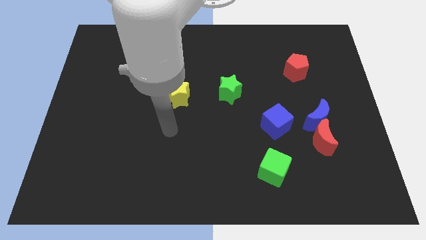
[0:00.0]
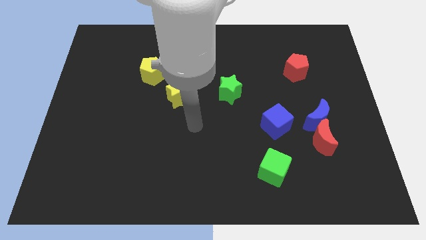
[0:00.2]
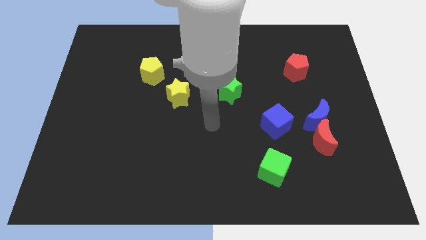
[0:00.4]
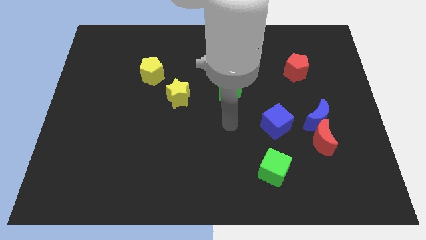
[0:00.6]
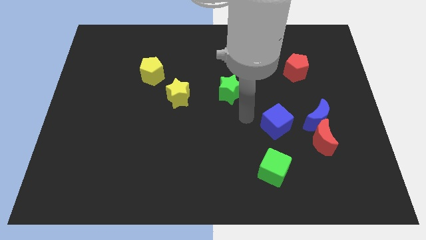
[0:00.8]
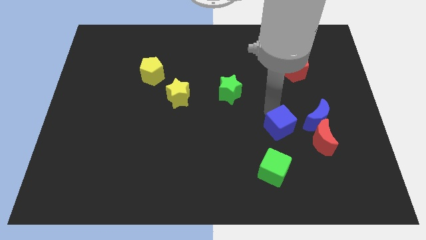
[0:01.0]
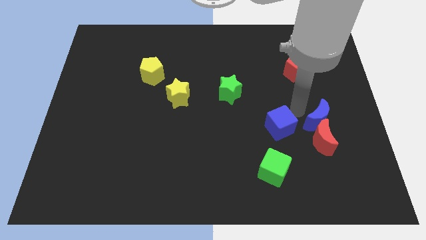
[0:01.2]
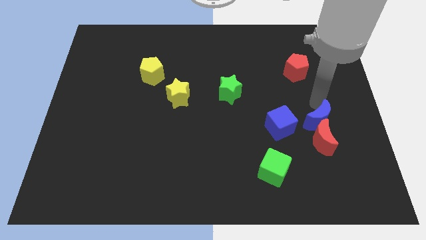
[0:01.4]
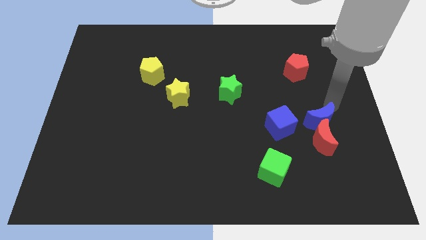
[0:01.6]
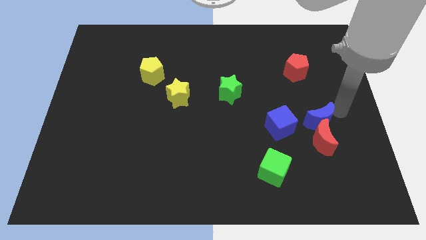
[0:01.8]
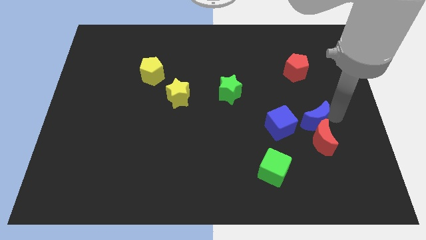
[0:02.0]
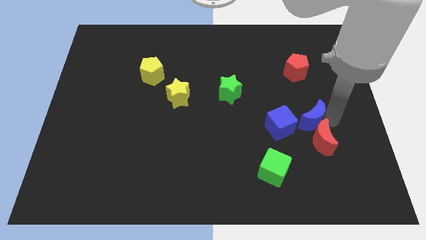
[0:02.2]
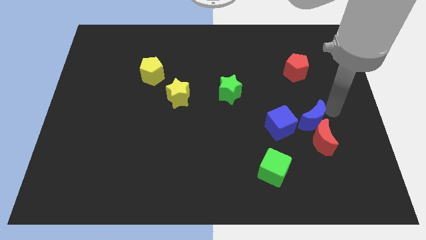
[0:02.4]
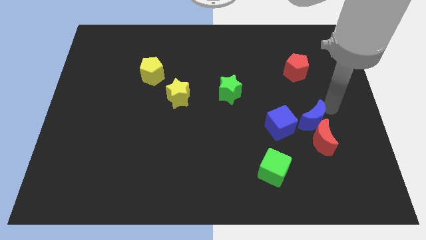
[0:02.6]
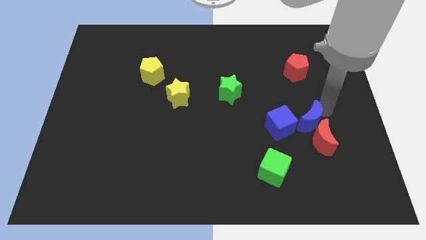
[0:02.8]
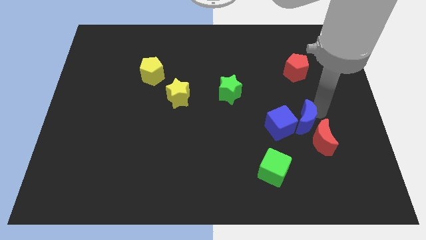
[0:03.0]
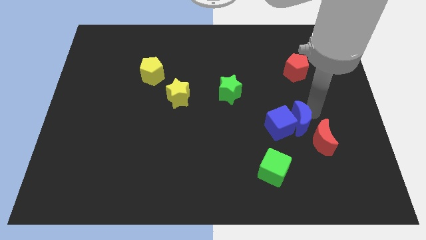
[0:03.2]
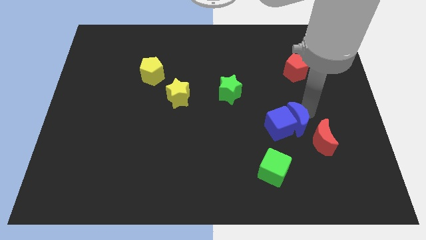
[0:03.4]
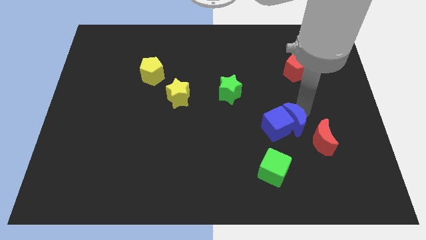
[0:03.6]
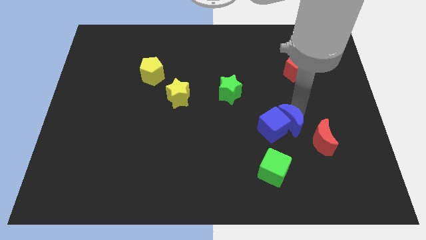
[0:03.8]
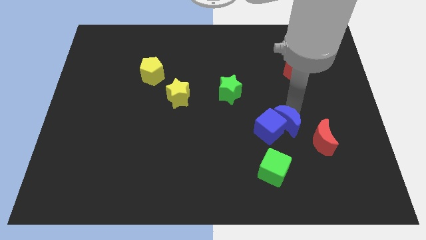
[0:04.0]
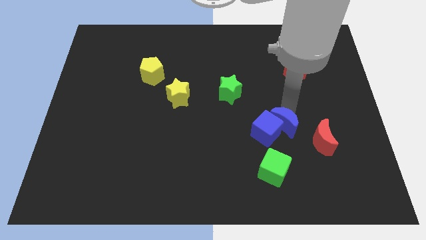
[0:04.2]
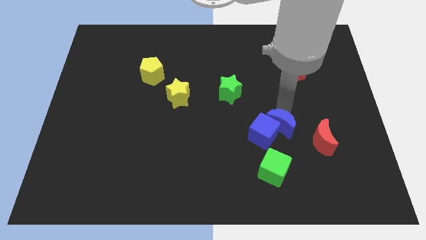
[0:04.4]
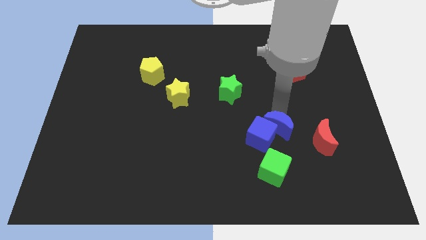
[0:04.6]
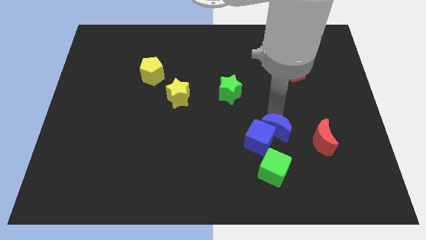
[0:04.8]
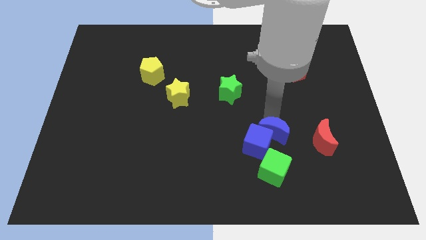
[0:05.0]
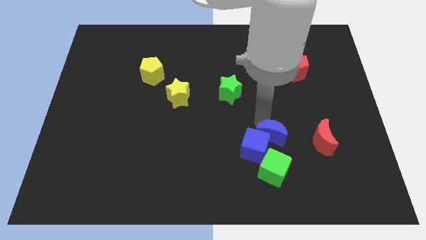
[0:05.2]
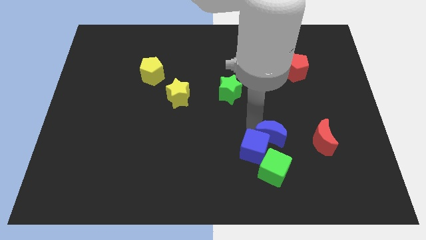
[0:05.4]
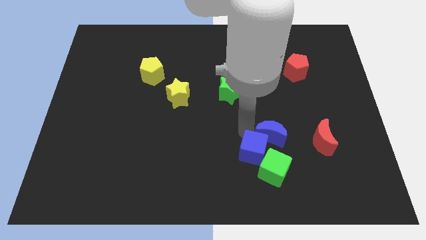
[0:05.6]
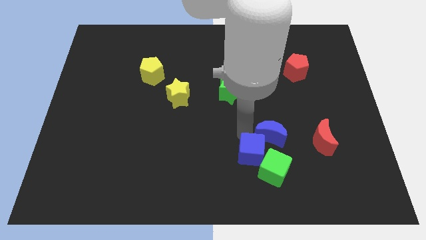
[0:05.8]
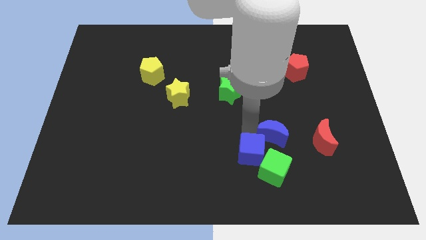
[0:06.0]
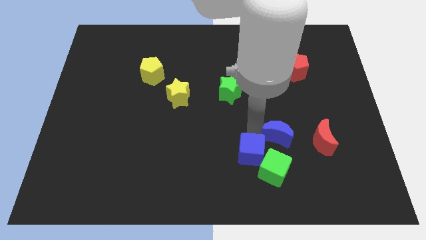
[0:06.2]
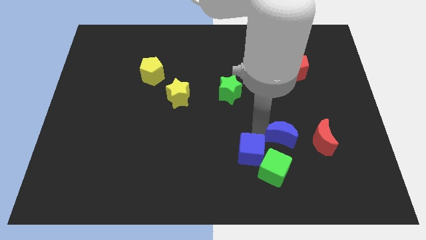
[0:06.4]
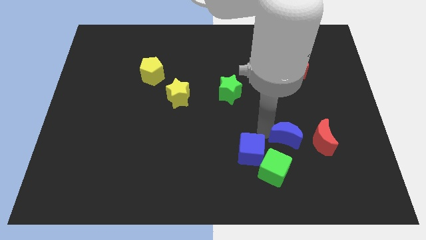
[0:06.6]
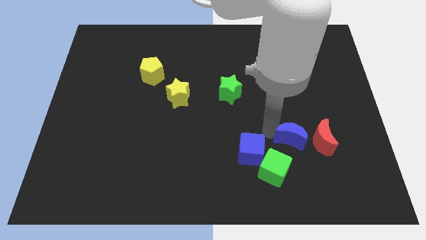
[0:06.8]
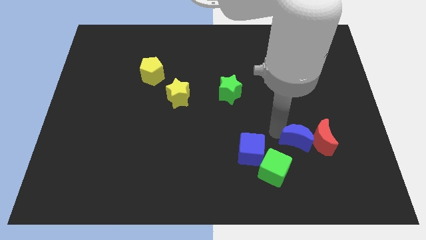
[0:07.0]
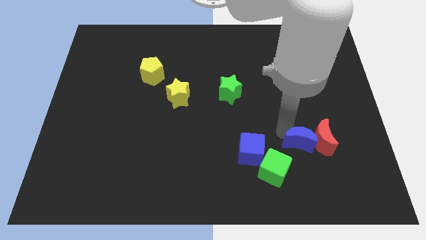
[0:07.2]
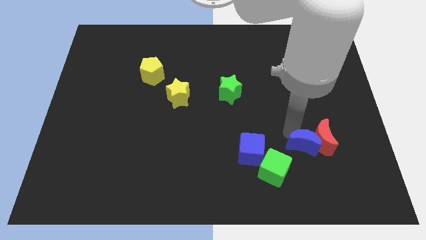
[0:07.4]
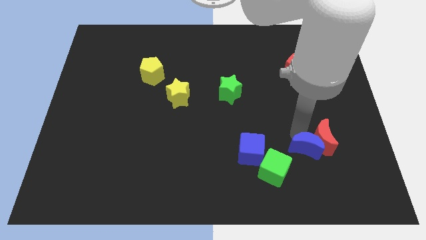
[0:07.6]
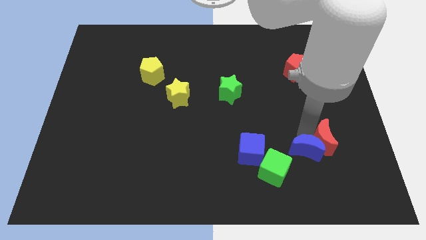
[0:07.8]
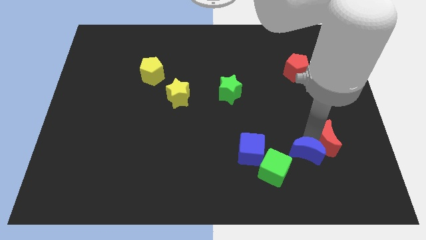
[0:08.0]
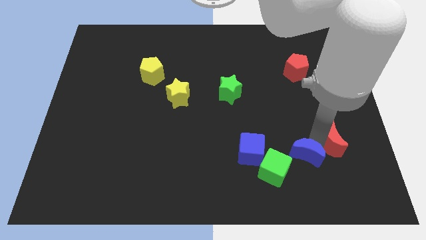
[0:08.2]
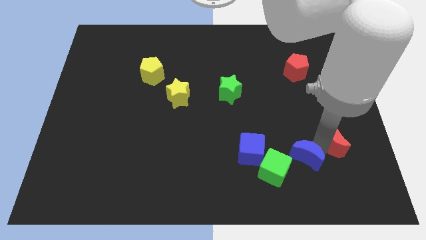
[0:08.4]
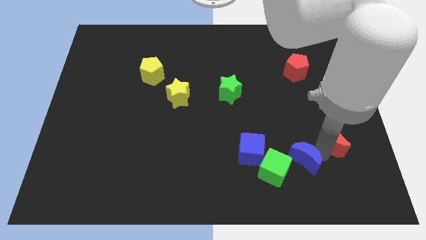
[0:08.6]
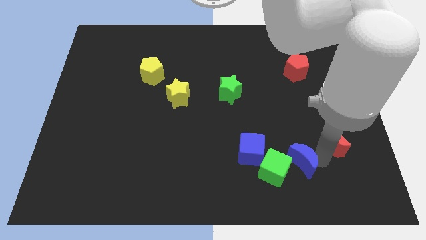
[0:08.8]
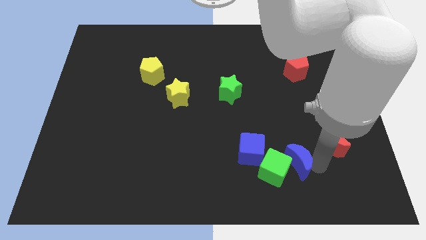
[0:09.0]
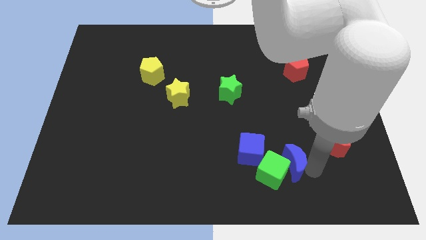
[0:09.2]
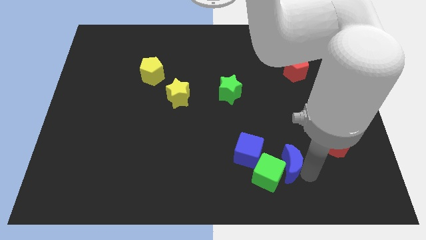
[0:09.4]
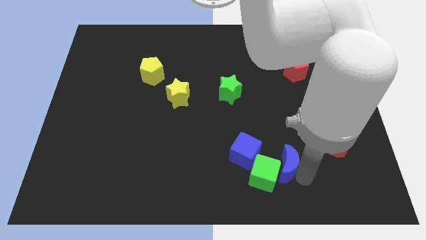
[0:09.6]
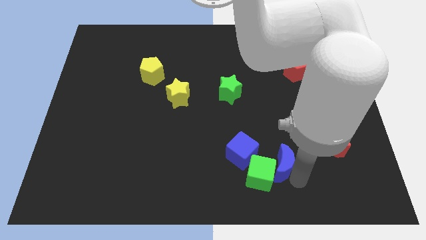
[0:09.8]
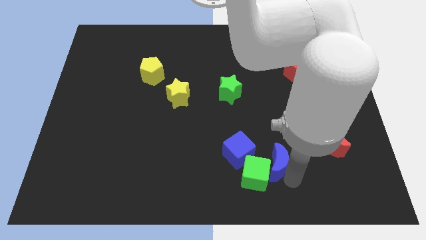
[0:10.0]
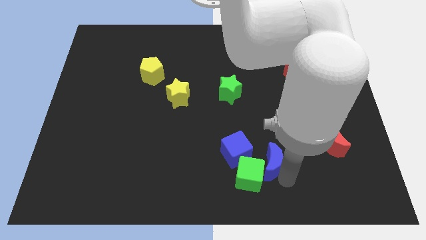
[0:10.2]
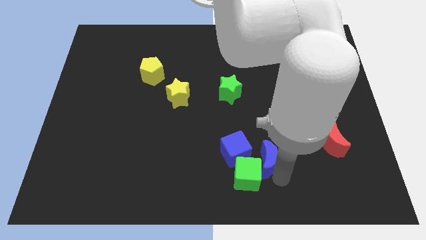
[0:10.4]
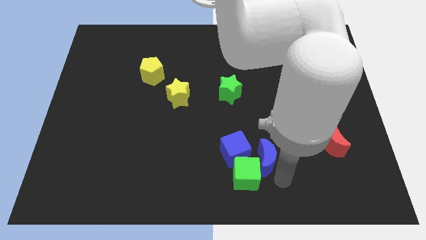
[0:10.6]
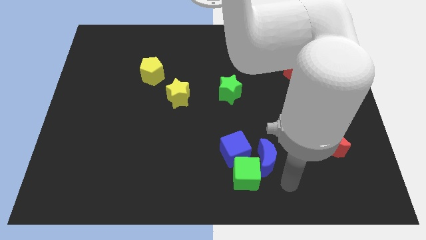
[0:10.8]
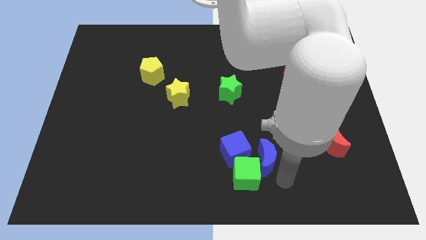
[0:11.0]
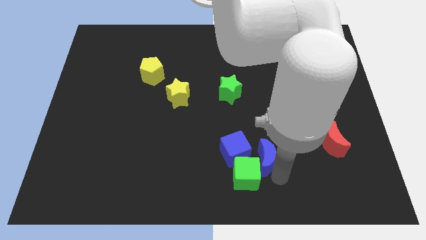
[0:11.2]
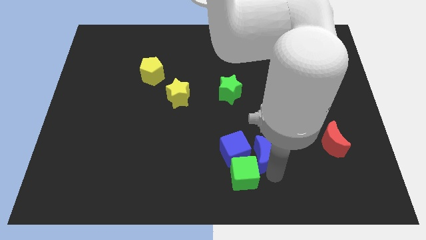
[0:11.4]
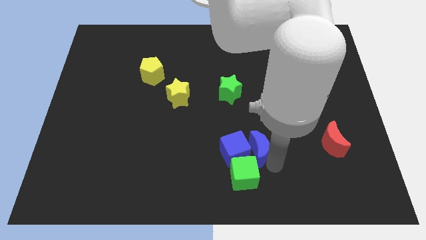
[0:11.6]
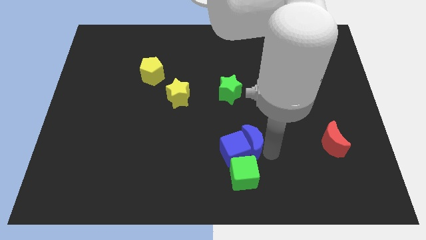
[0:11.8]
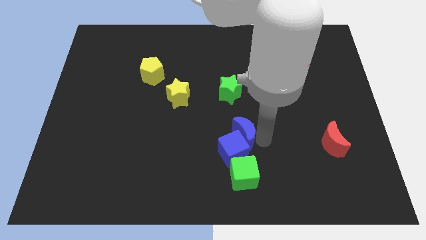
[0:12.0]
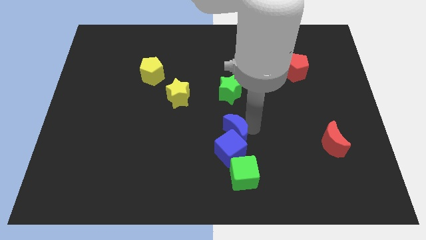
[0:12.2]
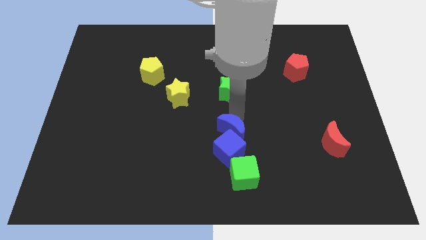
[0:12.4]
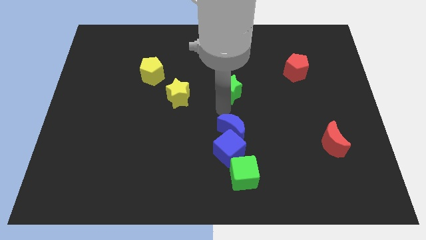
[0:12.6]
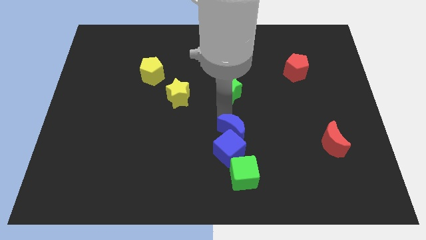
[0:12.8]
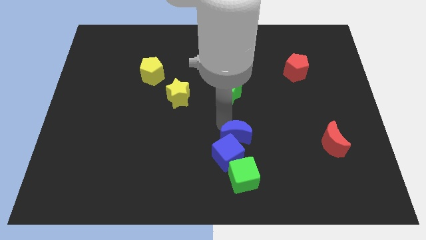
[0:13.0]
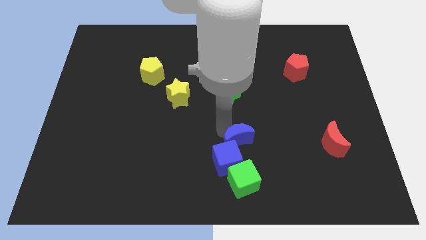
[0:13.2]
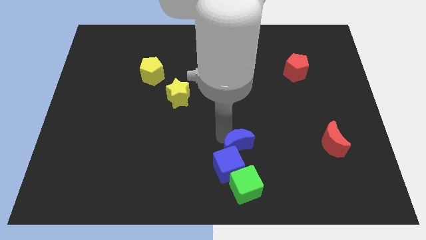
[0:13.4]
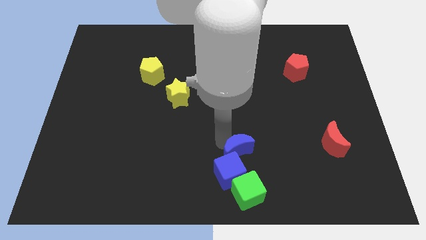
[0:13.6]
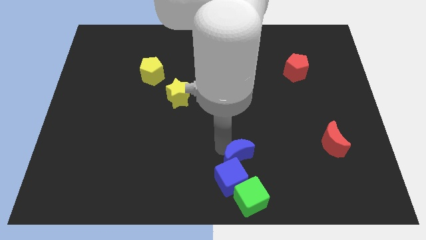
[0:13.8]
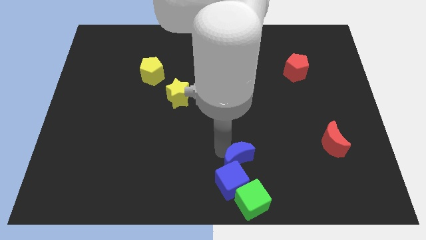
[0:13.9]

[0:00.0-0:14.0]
push the blue moon to the bottom

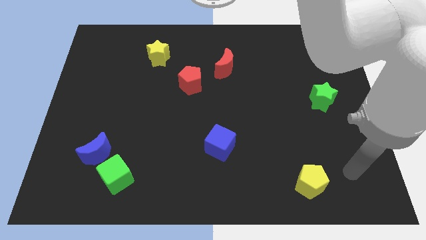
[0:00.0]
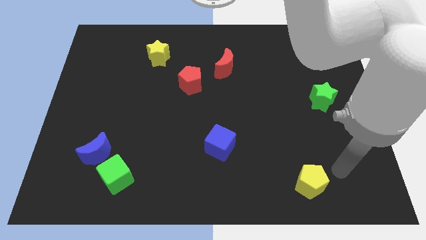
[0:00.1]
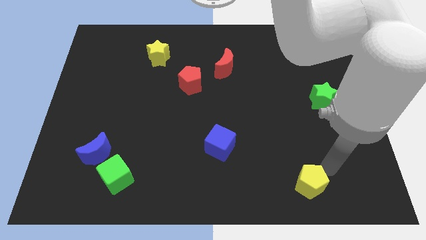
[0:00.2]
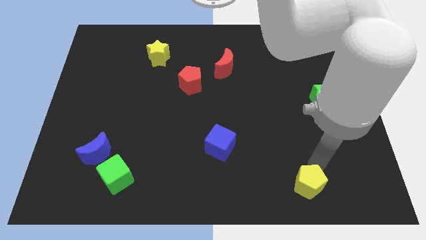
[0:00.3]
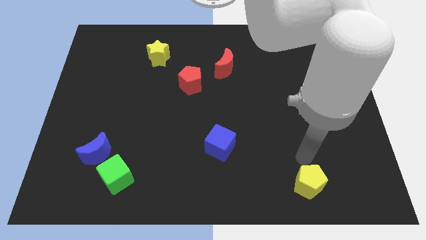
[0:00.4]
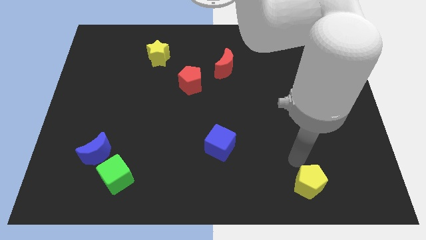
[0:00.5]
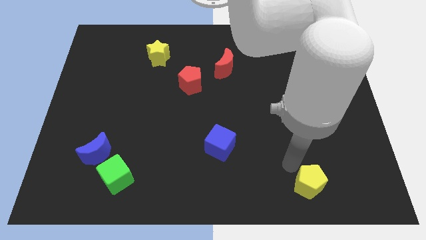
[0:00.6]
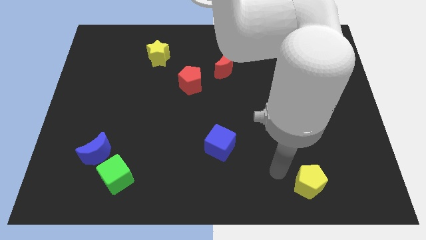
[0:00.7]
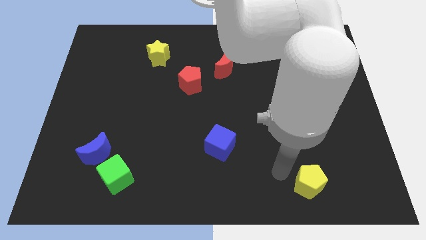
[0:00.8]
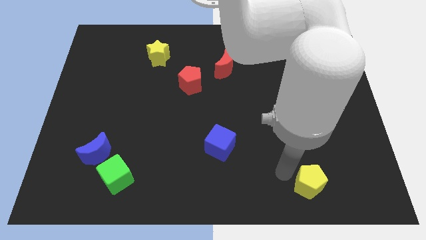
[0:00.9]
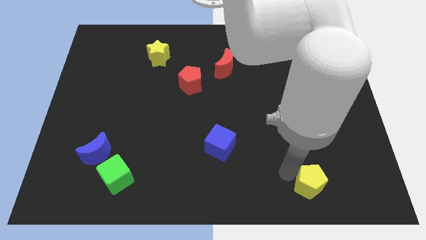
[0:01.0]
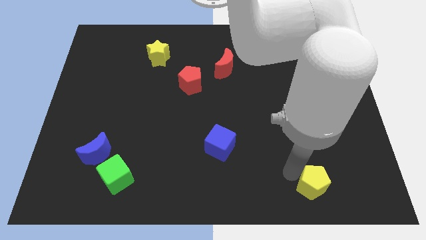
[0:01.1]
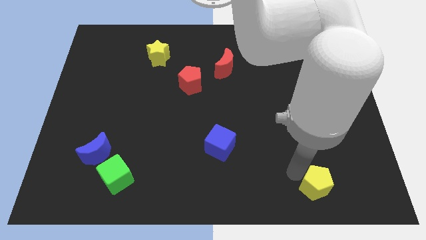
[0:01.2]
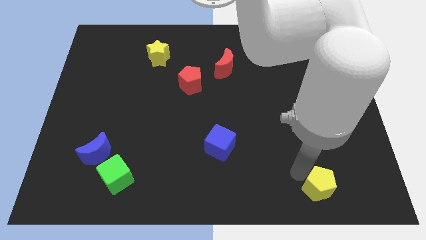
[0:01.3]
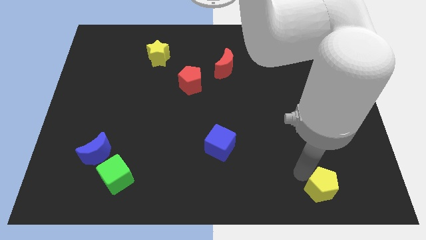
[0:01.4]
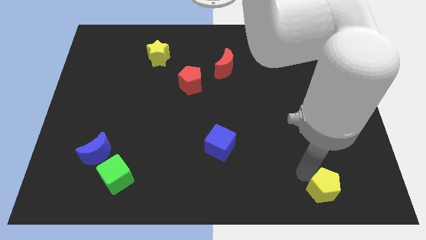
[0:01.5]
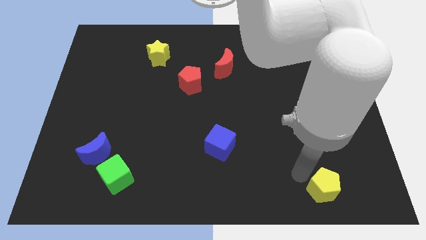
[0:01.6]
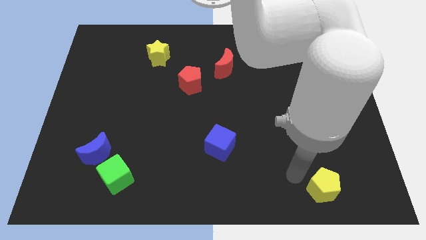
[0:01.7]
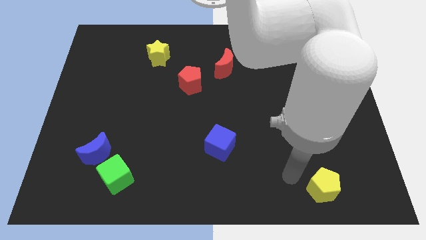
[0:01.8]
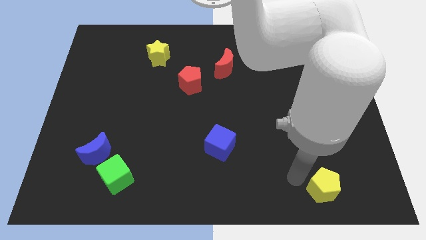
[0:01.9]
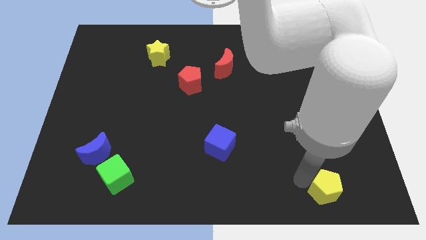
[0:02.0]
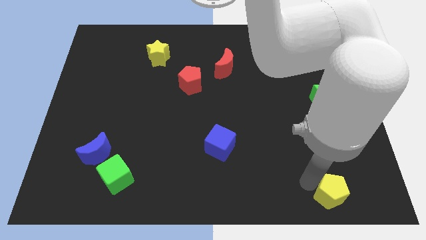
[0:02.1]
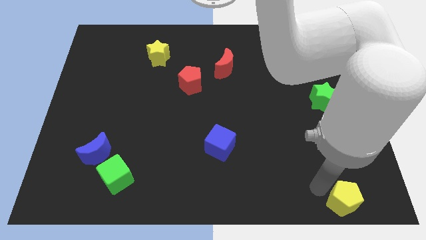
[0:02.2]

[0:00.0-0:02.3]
push the yellow pentagon to the bottom right corner
